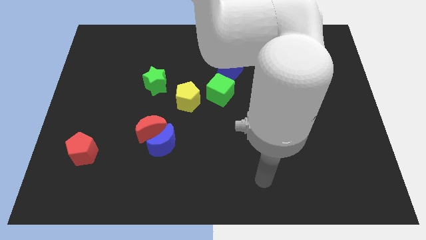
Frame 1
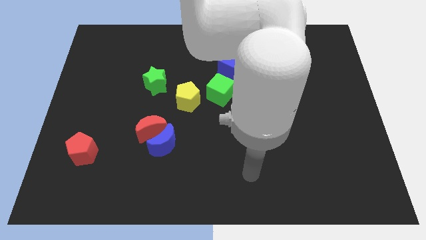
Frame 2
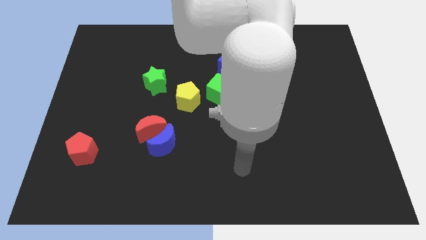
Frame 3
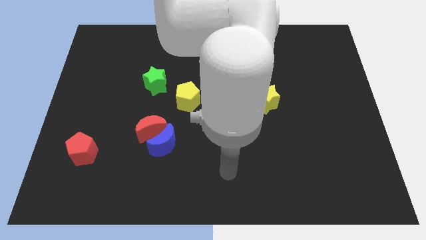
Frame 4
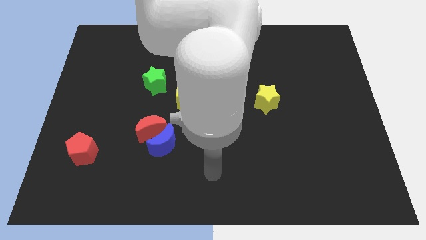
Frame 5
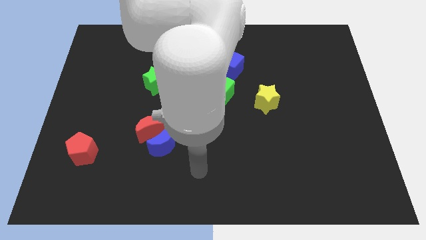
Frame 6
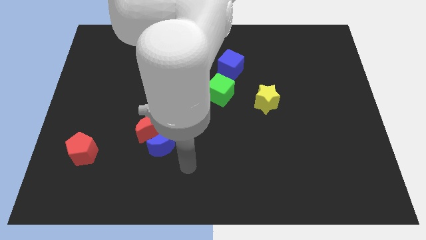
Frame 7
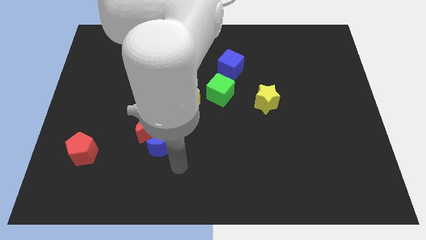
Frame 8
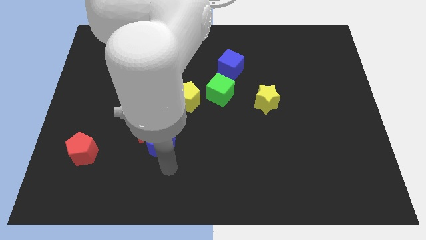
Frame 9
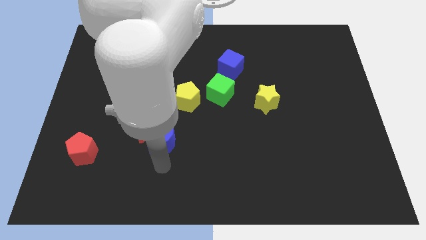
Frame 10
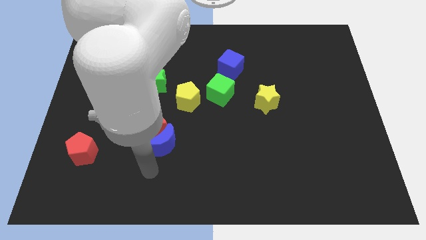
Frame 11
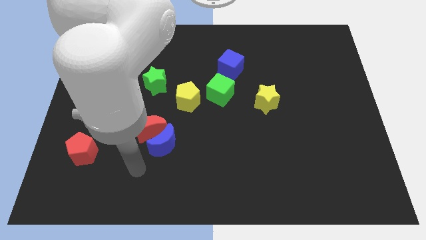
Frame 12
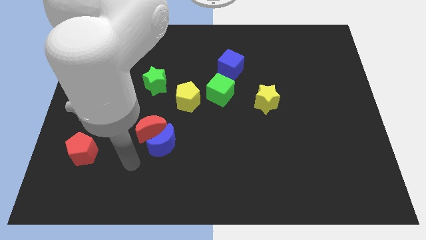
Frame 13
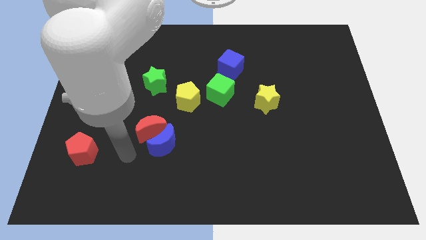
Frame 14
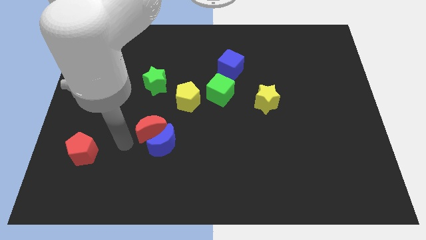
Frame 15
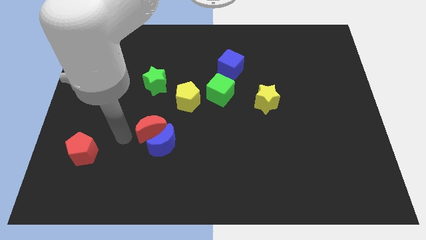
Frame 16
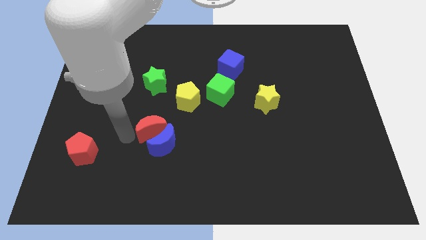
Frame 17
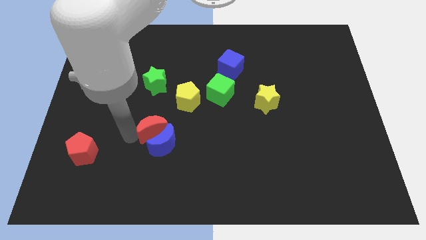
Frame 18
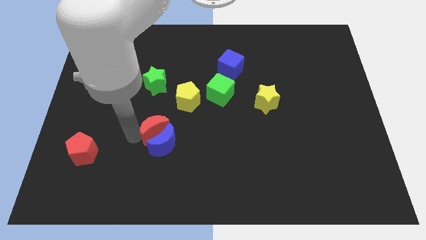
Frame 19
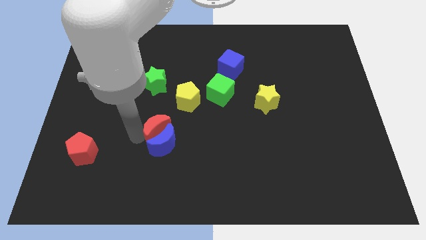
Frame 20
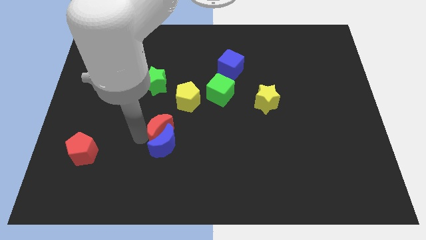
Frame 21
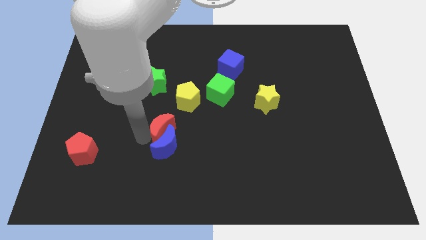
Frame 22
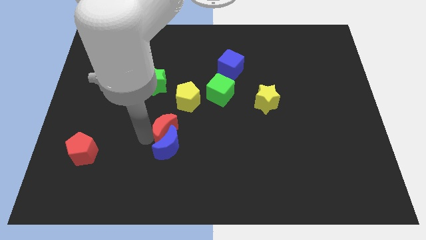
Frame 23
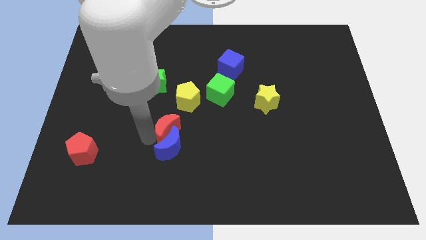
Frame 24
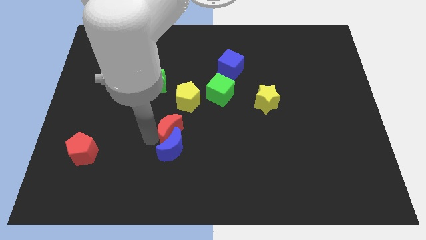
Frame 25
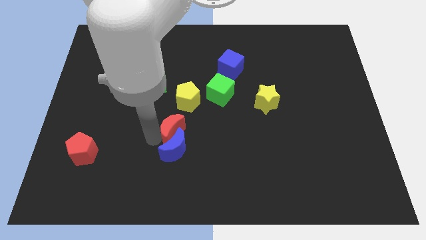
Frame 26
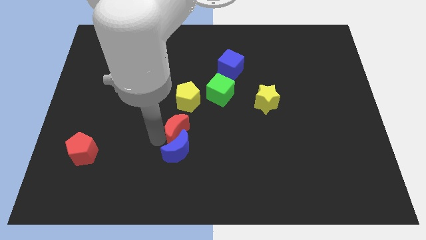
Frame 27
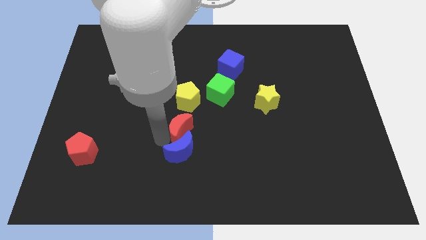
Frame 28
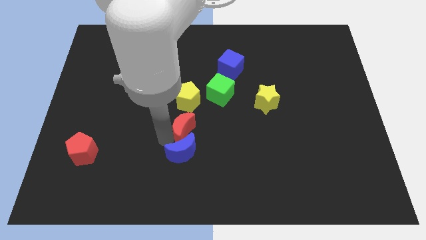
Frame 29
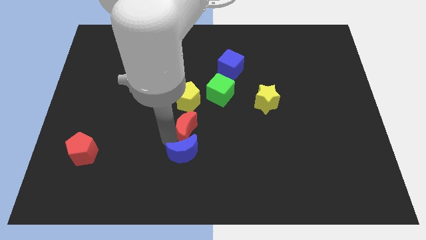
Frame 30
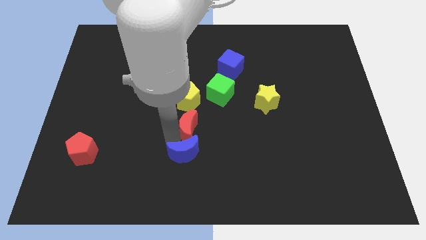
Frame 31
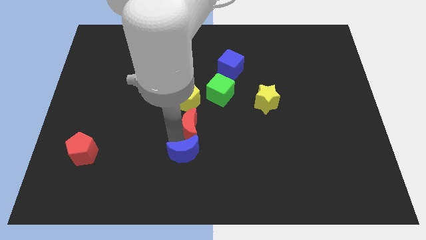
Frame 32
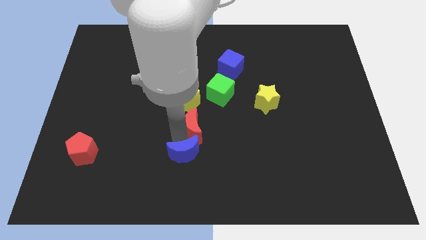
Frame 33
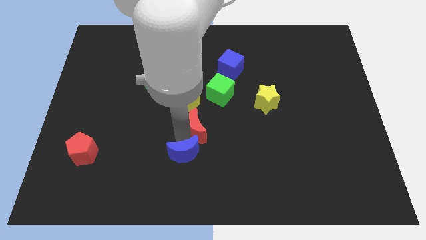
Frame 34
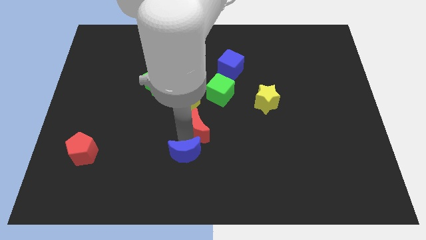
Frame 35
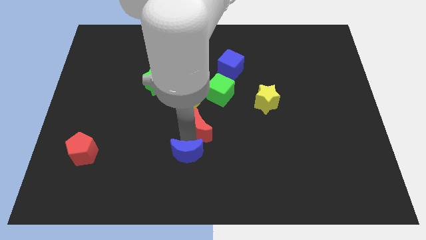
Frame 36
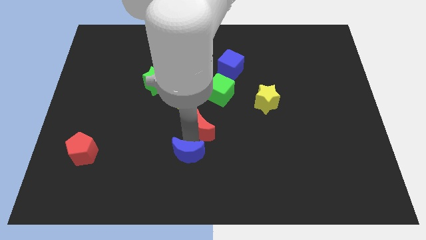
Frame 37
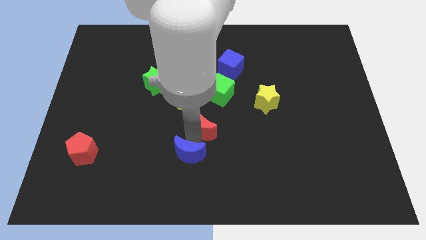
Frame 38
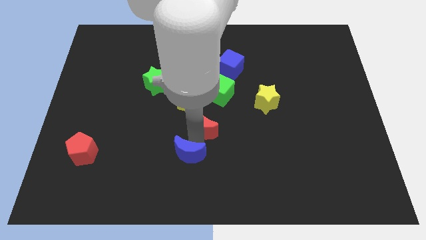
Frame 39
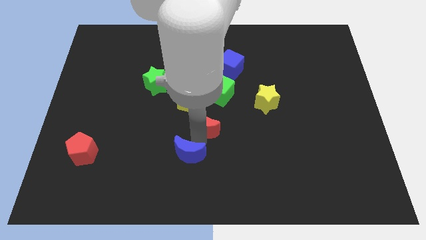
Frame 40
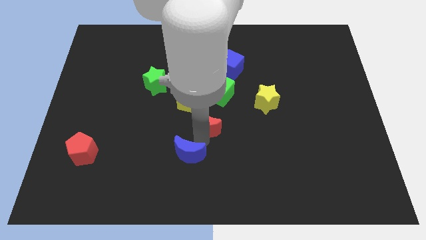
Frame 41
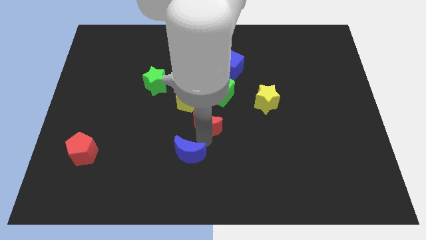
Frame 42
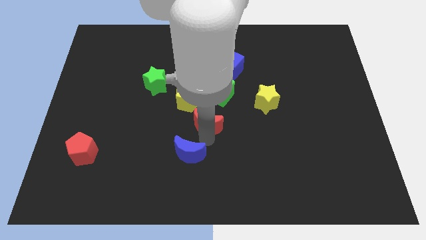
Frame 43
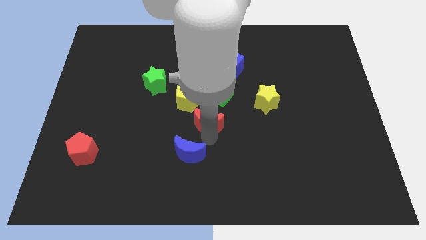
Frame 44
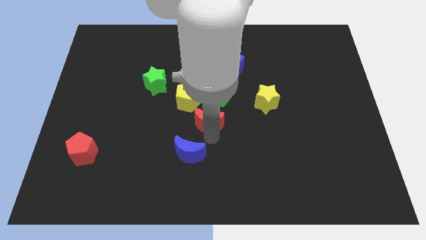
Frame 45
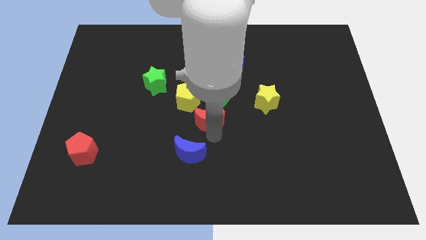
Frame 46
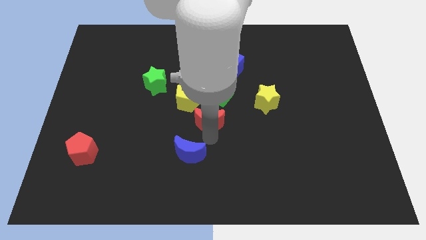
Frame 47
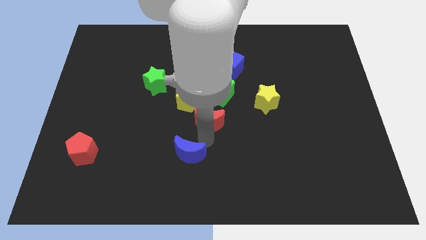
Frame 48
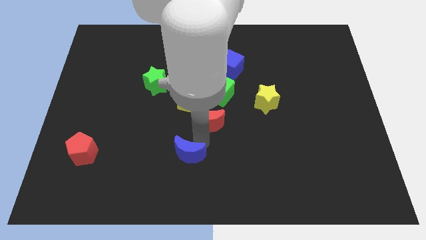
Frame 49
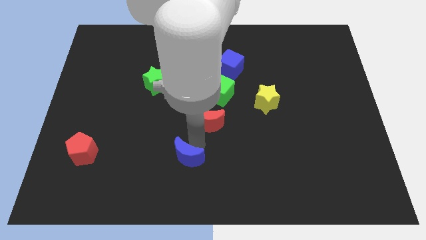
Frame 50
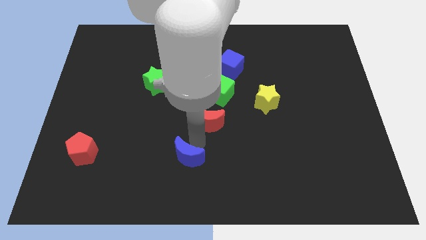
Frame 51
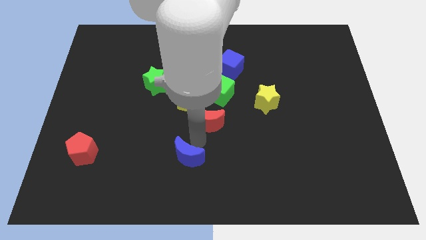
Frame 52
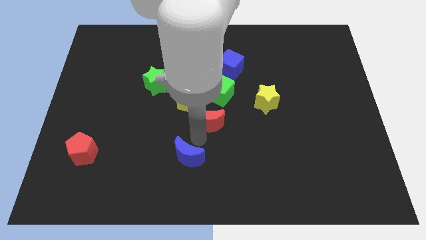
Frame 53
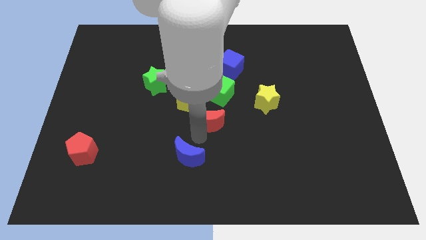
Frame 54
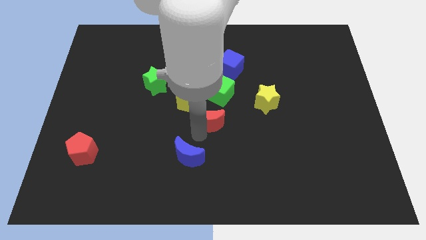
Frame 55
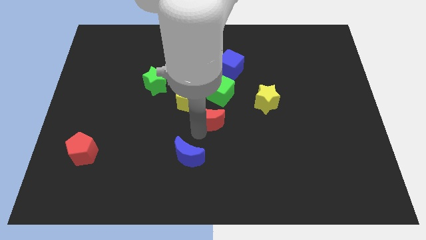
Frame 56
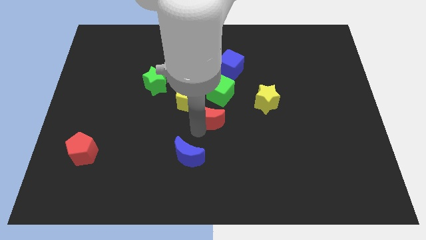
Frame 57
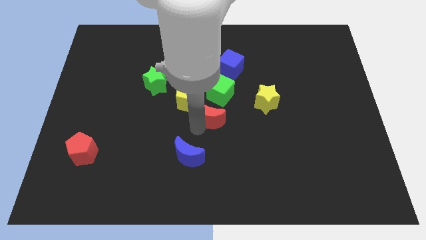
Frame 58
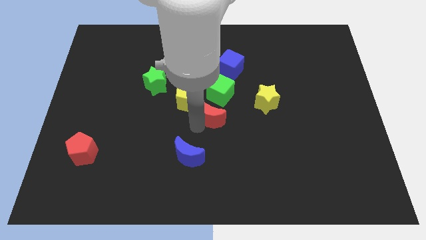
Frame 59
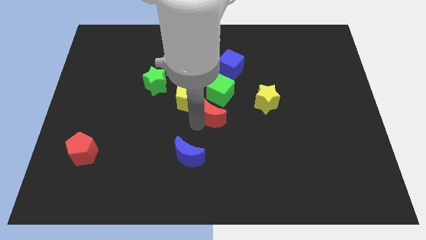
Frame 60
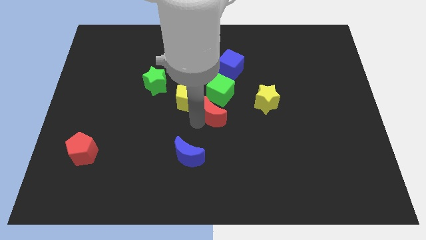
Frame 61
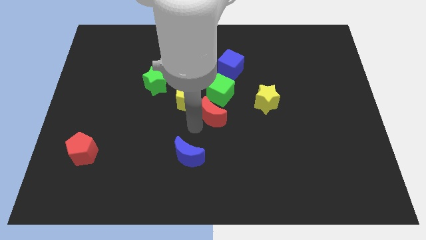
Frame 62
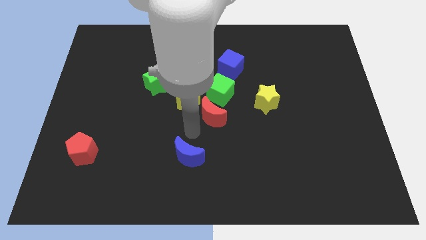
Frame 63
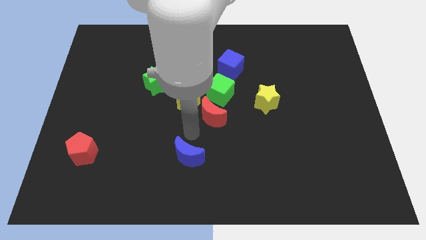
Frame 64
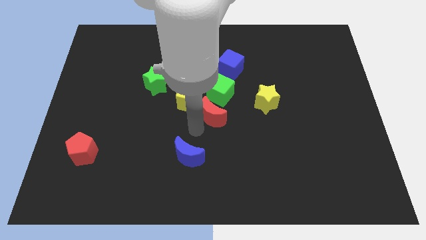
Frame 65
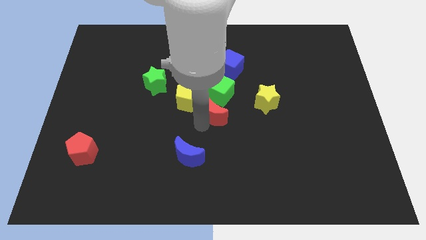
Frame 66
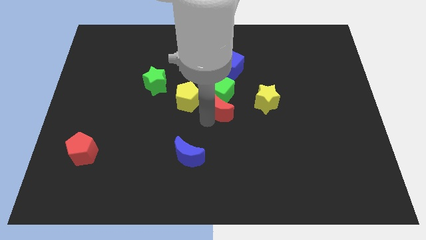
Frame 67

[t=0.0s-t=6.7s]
move the red moon to the bottom of the blue cube
